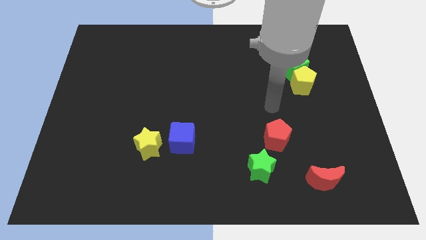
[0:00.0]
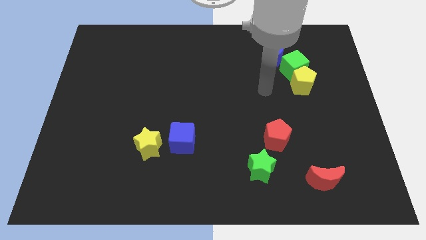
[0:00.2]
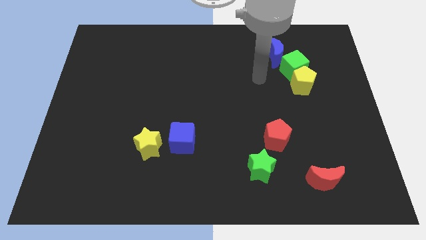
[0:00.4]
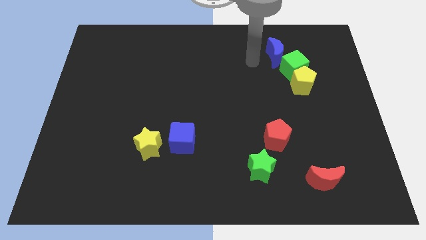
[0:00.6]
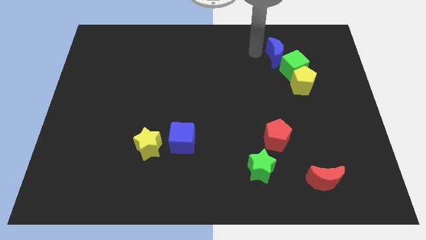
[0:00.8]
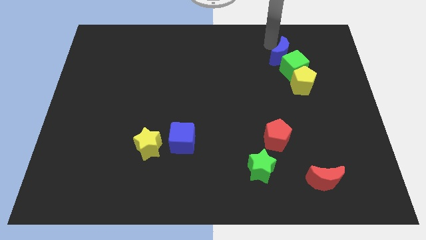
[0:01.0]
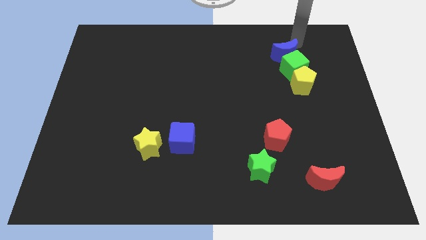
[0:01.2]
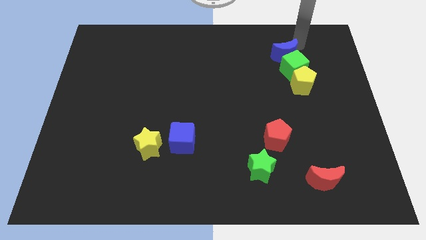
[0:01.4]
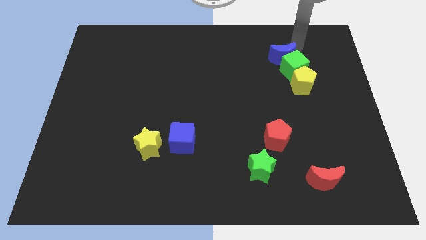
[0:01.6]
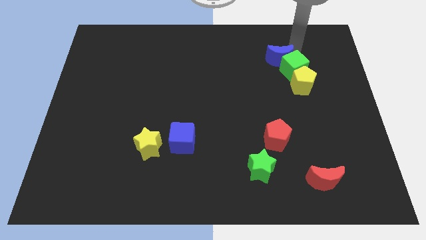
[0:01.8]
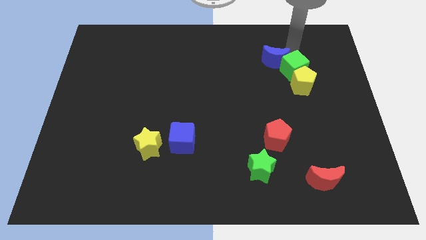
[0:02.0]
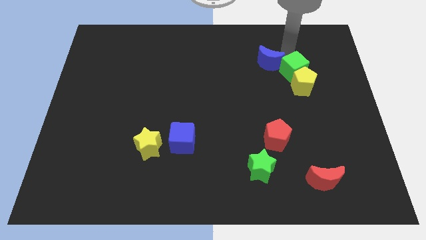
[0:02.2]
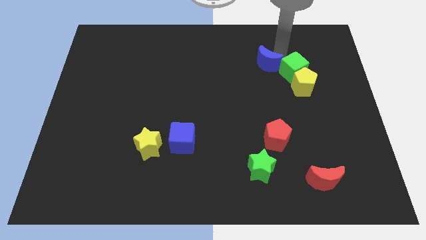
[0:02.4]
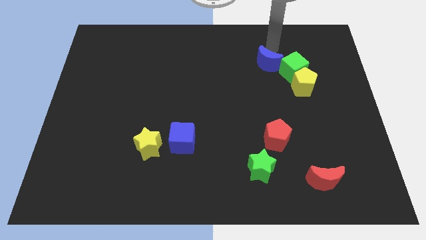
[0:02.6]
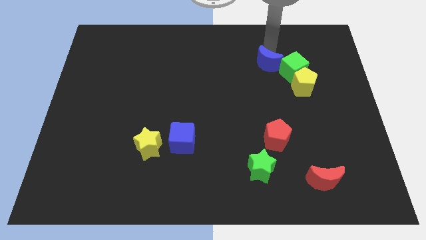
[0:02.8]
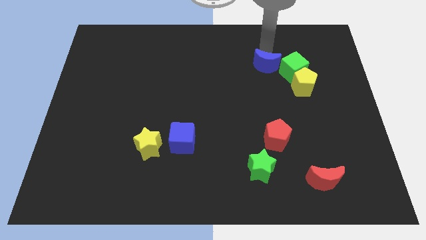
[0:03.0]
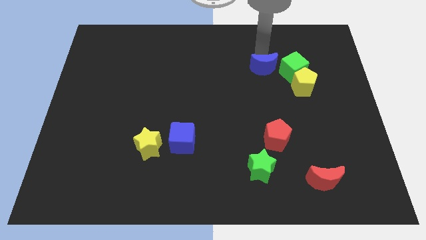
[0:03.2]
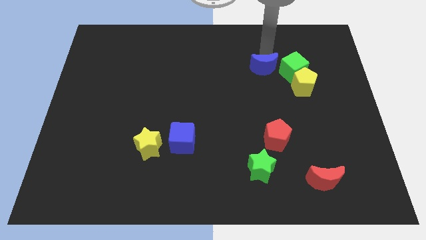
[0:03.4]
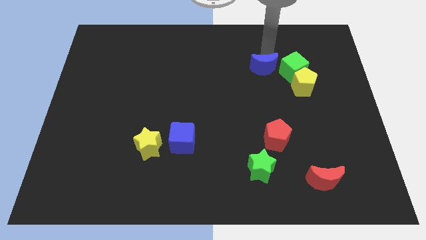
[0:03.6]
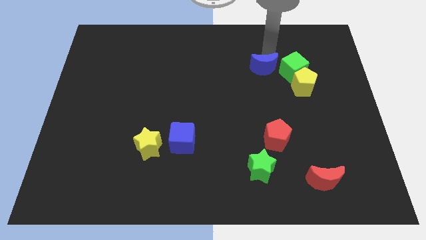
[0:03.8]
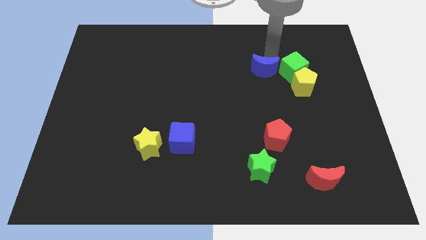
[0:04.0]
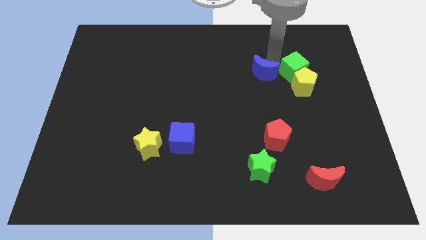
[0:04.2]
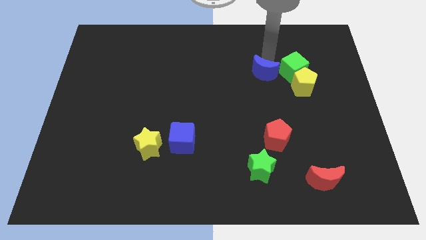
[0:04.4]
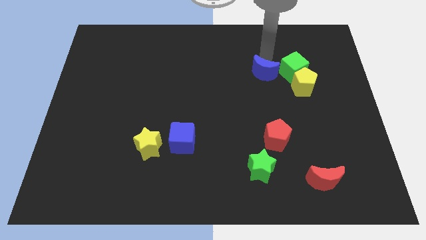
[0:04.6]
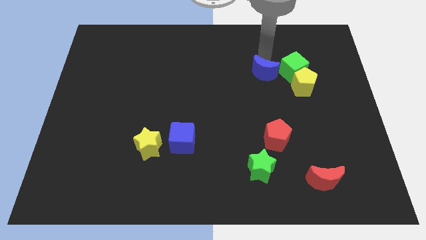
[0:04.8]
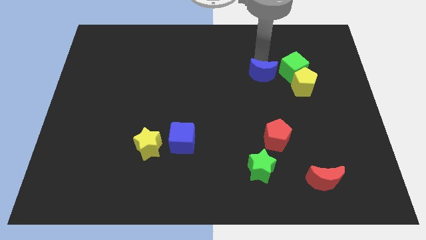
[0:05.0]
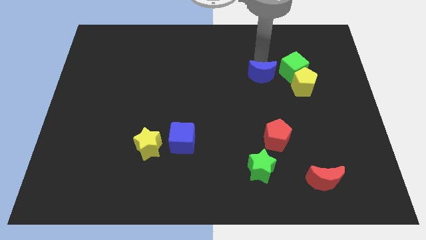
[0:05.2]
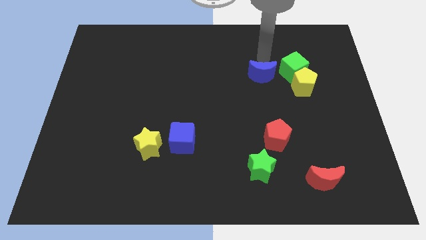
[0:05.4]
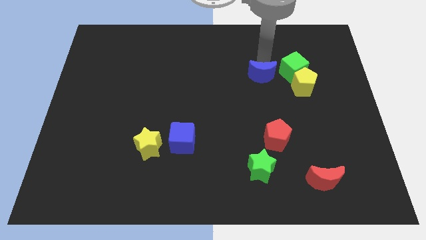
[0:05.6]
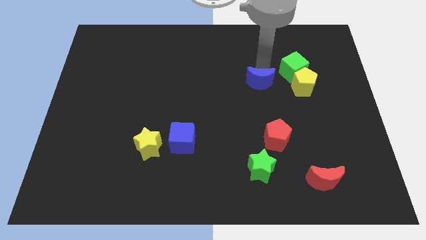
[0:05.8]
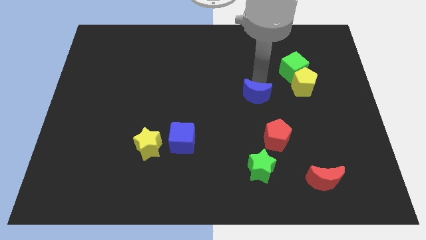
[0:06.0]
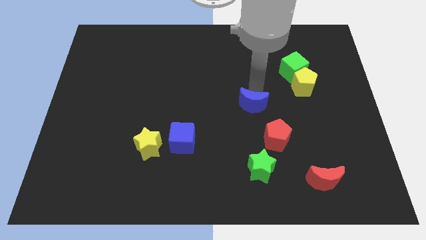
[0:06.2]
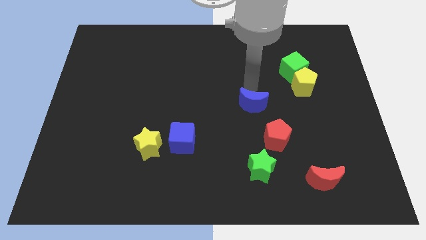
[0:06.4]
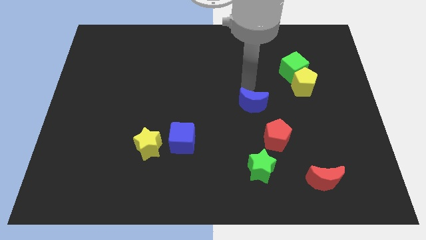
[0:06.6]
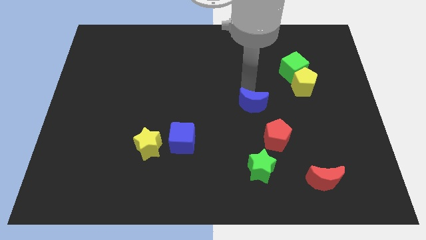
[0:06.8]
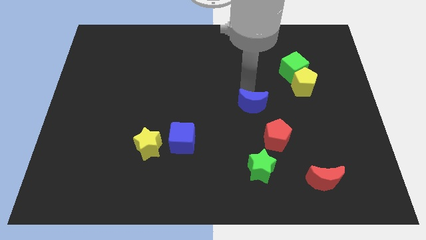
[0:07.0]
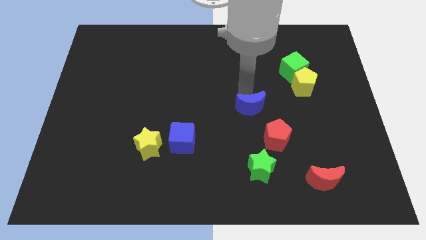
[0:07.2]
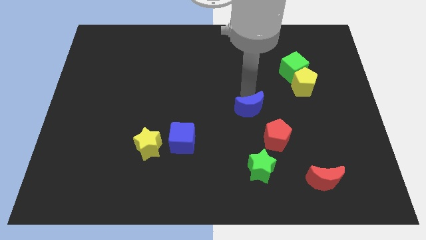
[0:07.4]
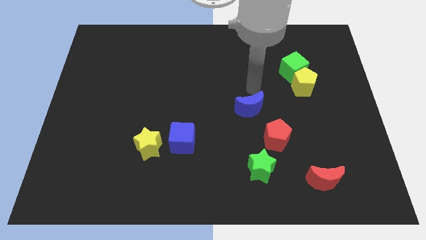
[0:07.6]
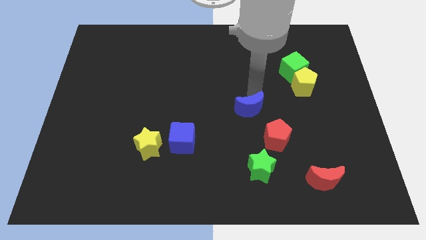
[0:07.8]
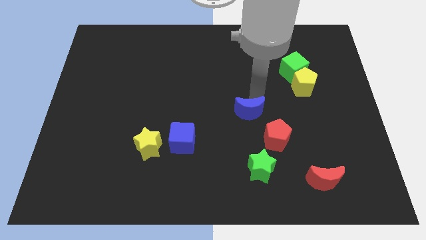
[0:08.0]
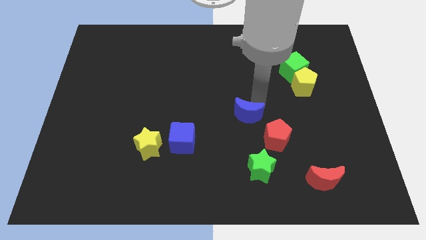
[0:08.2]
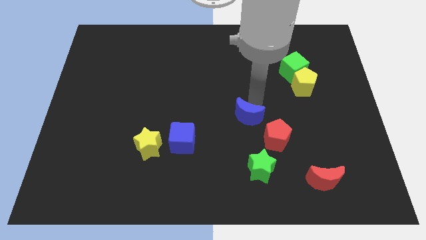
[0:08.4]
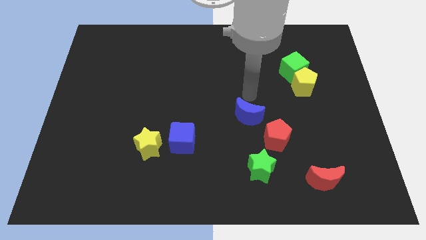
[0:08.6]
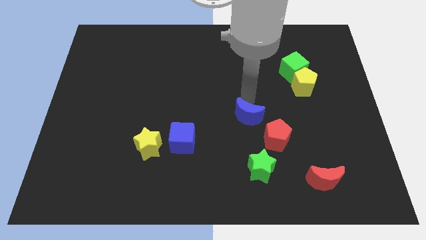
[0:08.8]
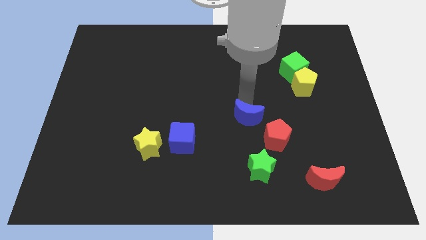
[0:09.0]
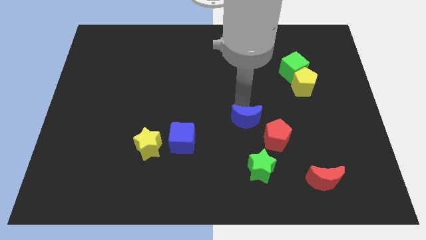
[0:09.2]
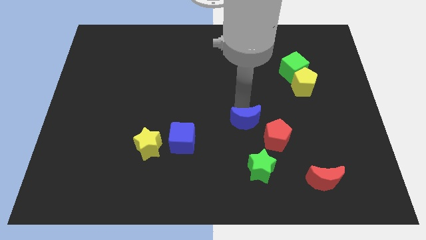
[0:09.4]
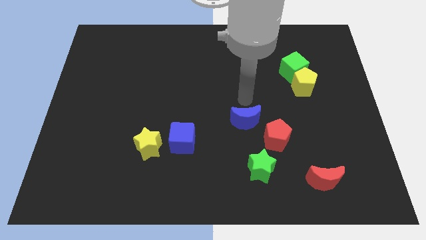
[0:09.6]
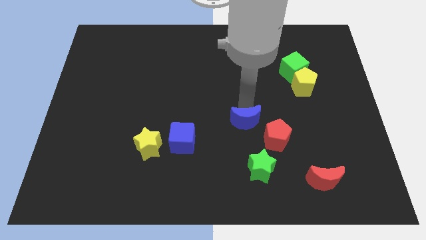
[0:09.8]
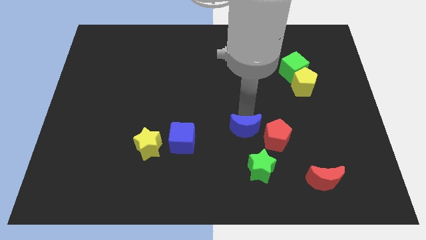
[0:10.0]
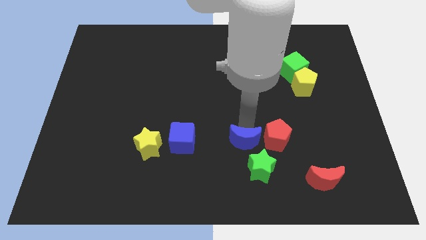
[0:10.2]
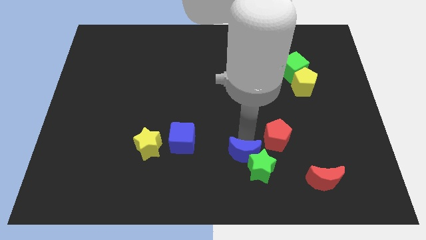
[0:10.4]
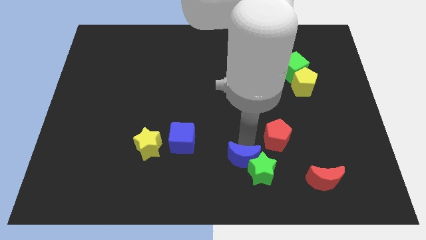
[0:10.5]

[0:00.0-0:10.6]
put the blue moon to the bottom

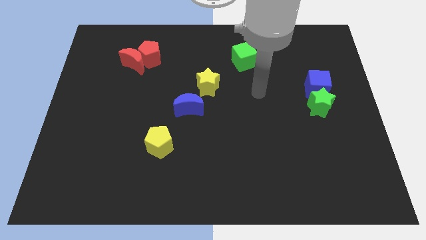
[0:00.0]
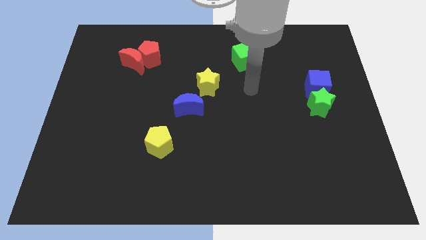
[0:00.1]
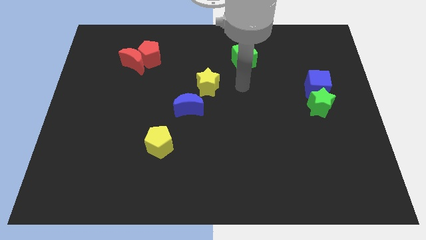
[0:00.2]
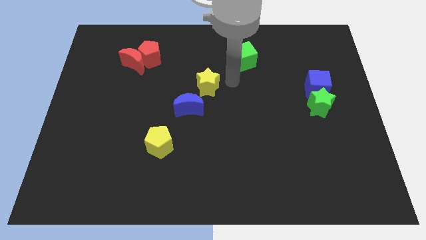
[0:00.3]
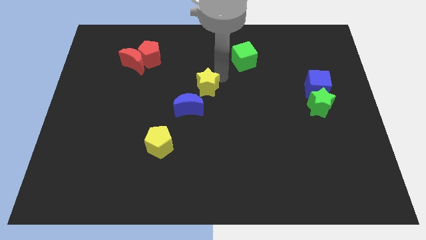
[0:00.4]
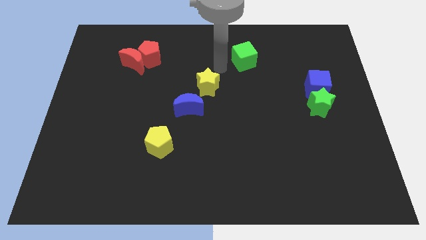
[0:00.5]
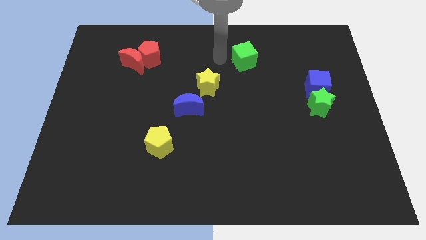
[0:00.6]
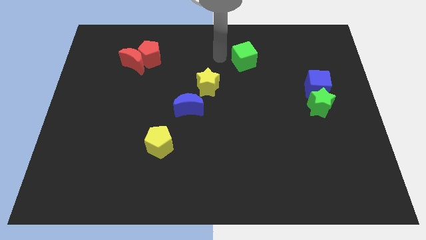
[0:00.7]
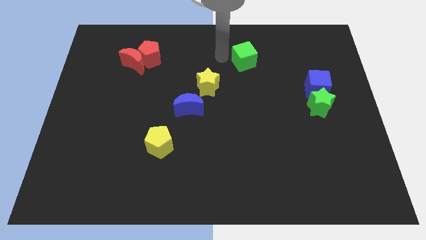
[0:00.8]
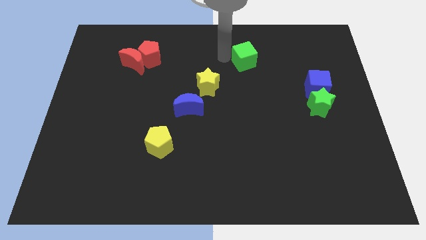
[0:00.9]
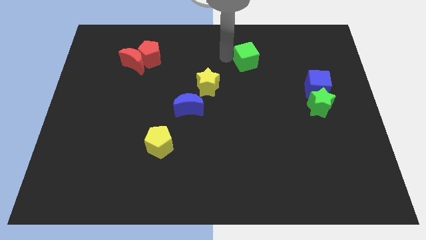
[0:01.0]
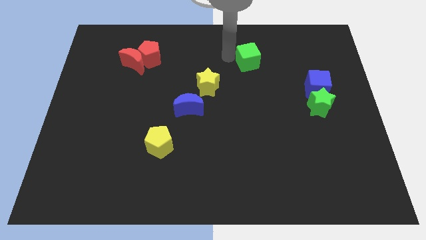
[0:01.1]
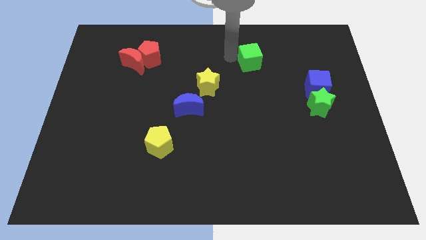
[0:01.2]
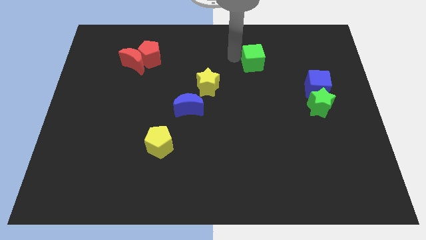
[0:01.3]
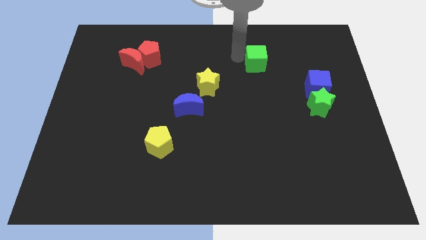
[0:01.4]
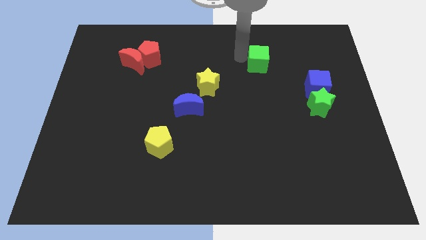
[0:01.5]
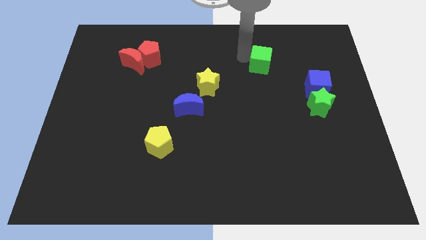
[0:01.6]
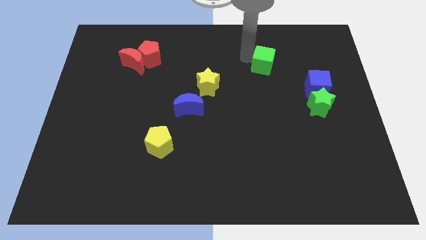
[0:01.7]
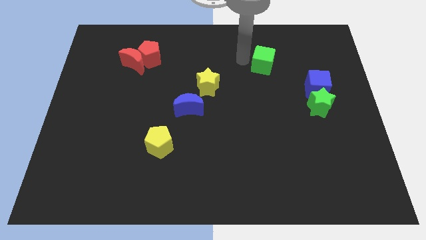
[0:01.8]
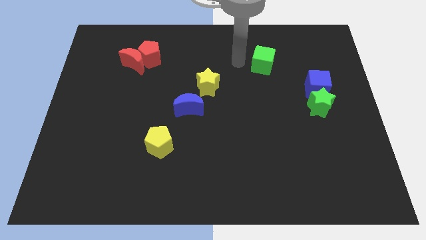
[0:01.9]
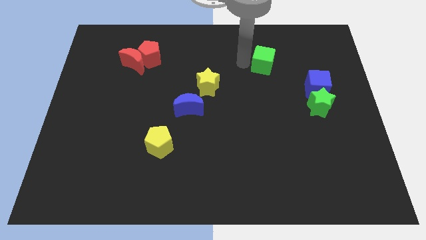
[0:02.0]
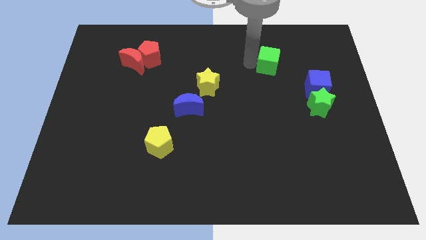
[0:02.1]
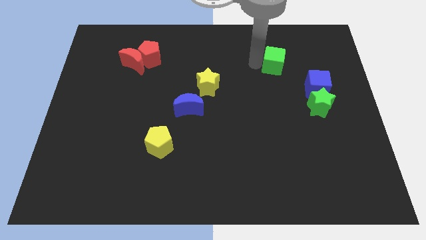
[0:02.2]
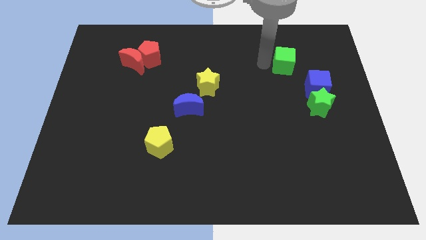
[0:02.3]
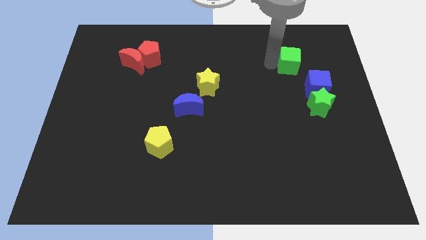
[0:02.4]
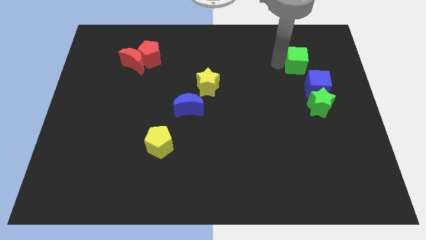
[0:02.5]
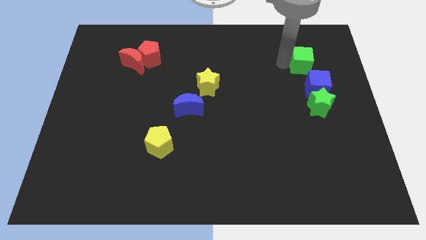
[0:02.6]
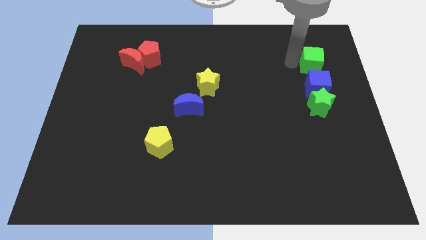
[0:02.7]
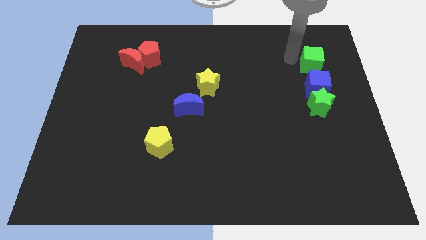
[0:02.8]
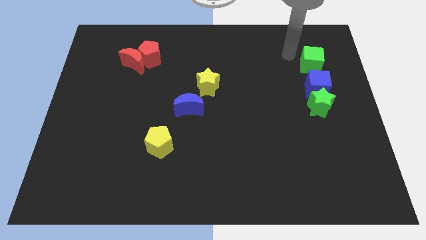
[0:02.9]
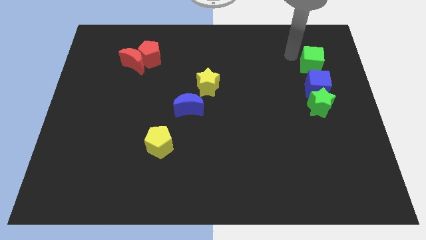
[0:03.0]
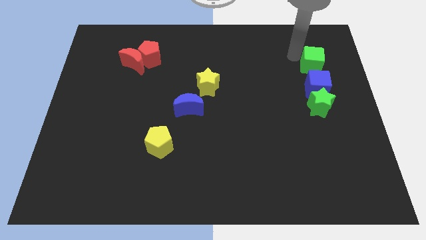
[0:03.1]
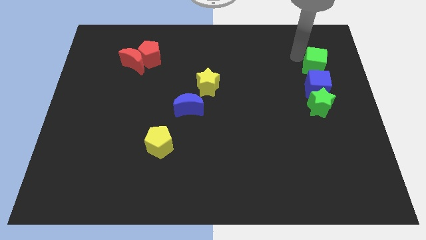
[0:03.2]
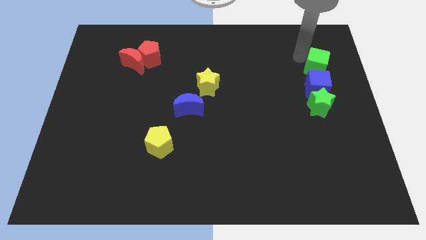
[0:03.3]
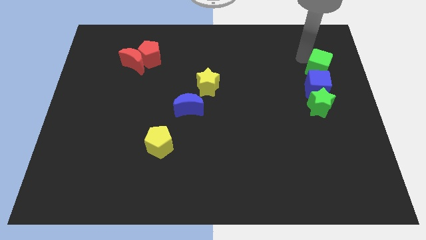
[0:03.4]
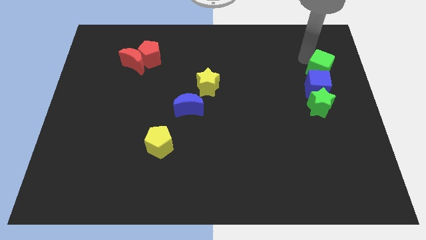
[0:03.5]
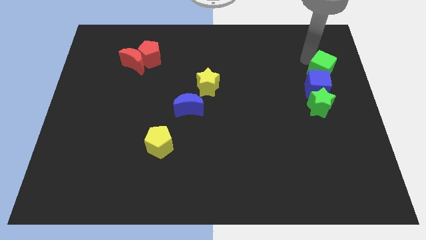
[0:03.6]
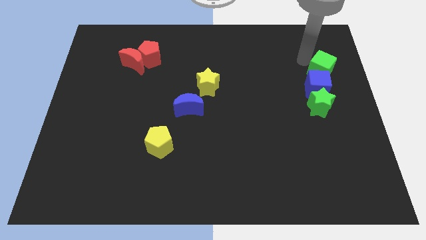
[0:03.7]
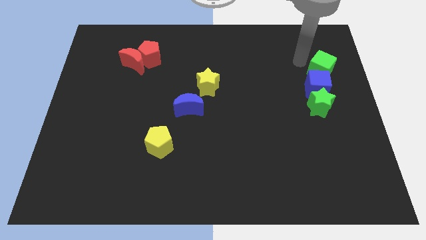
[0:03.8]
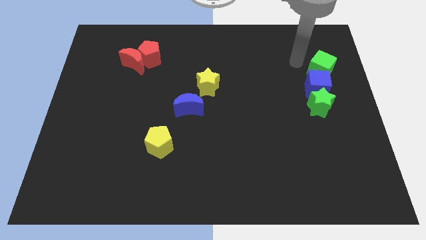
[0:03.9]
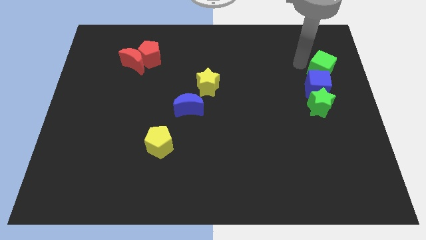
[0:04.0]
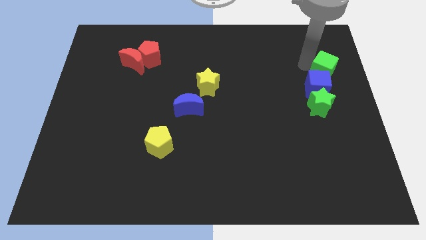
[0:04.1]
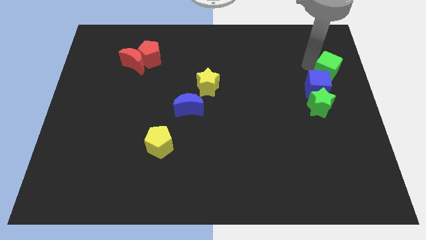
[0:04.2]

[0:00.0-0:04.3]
push the green cube to the center right
